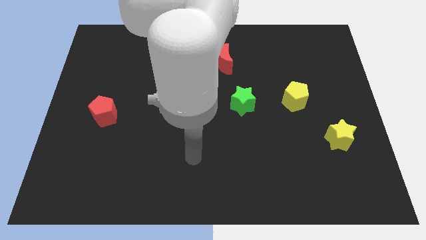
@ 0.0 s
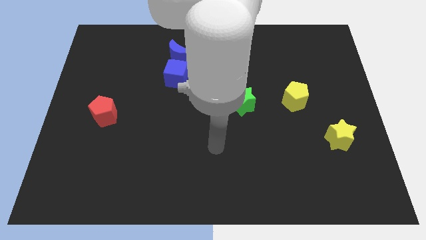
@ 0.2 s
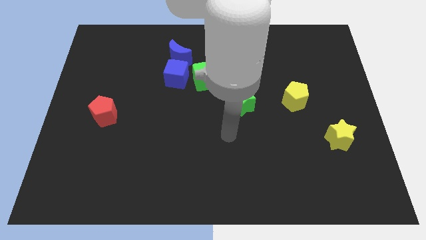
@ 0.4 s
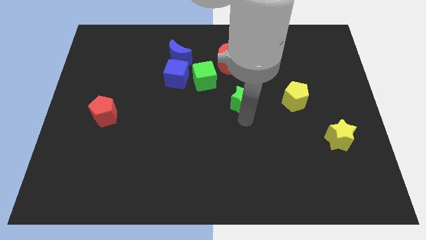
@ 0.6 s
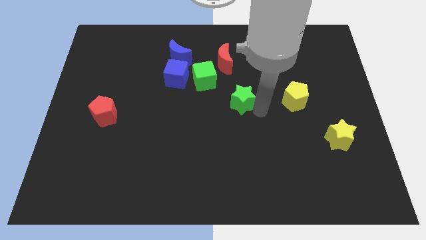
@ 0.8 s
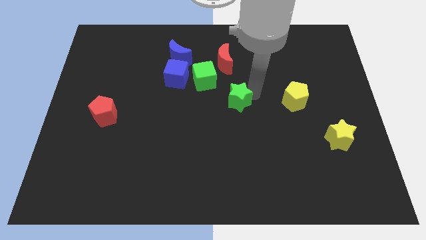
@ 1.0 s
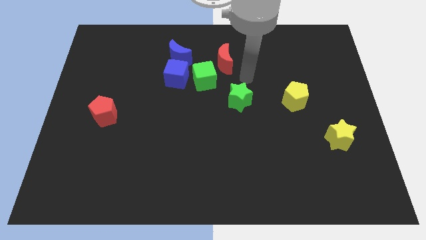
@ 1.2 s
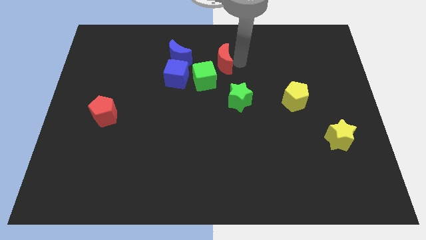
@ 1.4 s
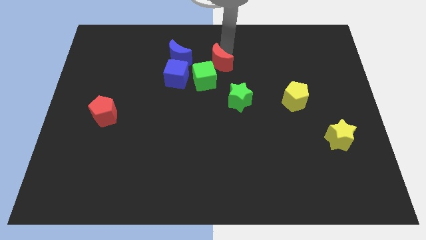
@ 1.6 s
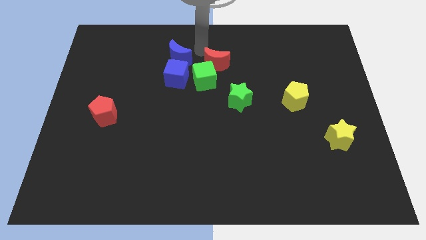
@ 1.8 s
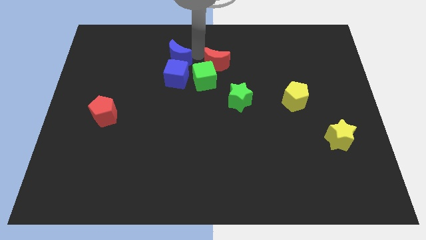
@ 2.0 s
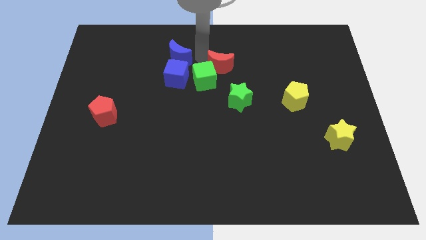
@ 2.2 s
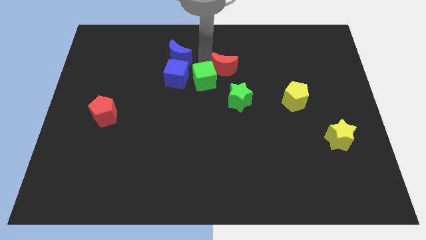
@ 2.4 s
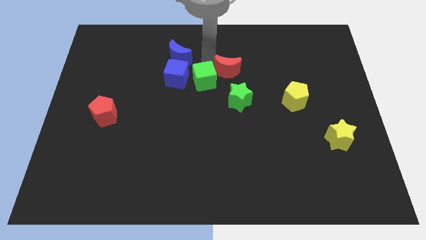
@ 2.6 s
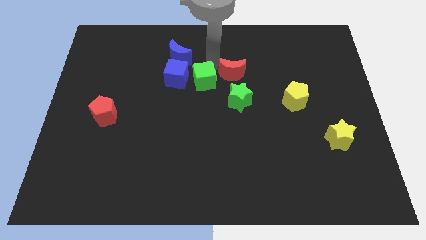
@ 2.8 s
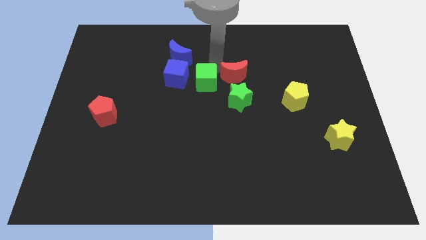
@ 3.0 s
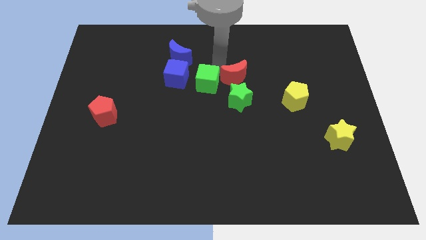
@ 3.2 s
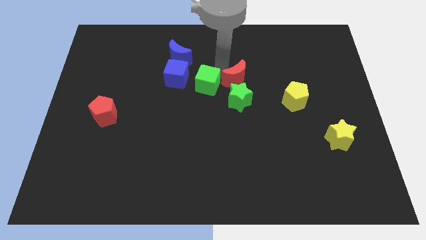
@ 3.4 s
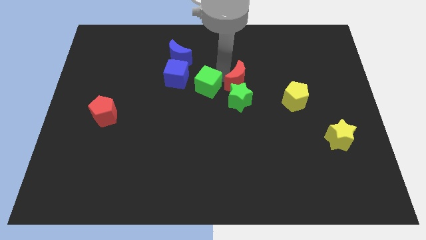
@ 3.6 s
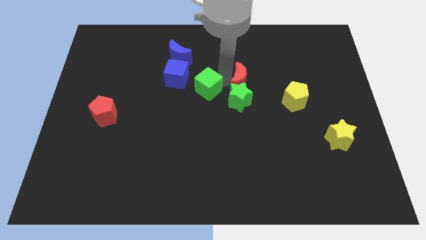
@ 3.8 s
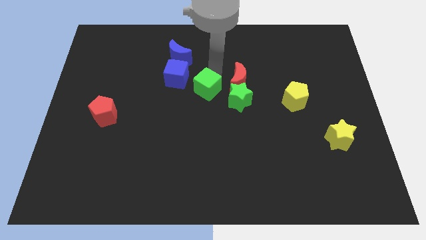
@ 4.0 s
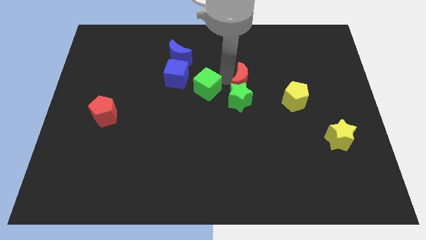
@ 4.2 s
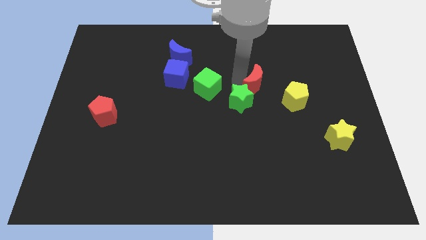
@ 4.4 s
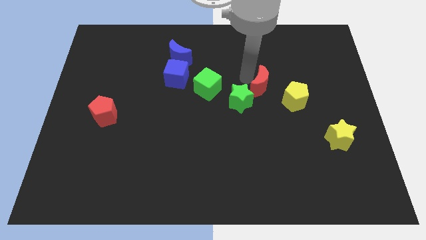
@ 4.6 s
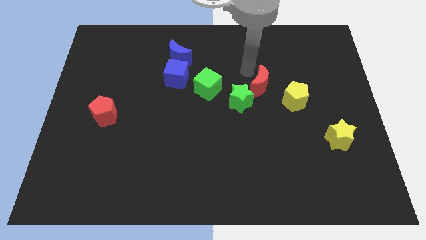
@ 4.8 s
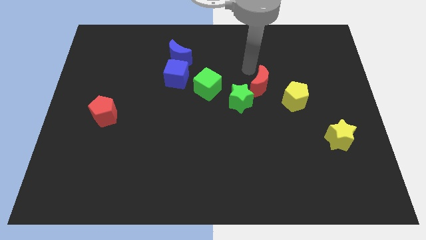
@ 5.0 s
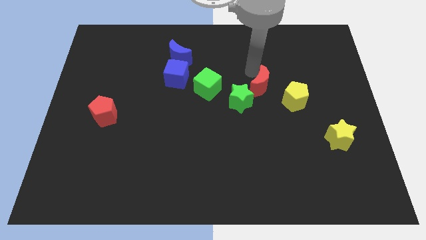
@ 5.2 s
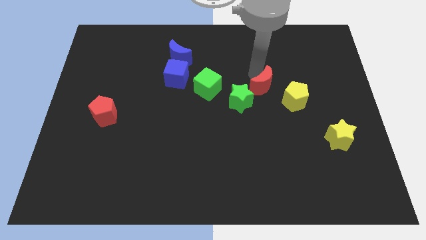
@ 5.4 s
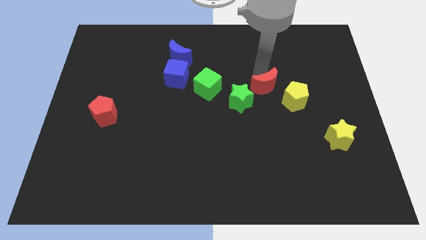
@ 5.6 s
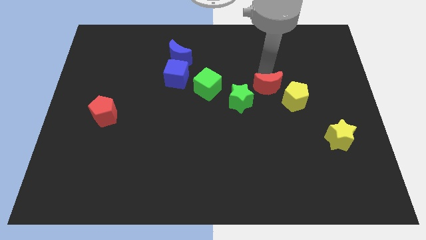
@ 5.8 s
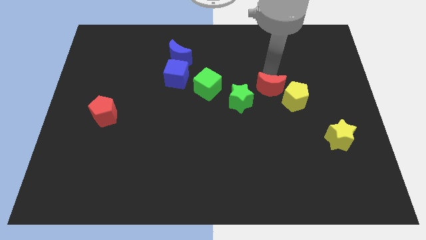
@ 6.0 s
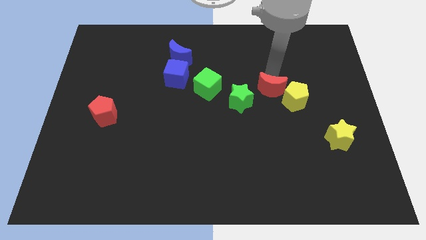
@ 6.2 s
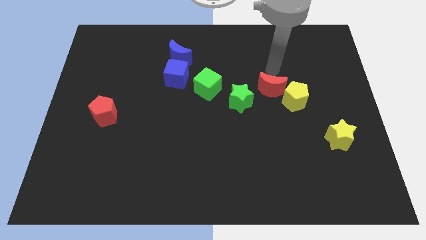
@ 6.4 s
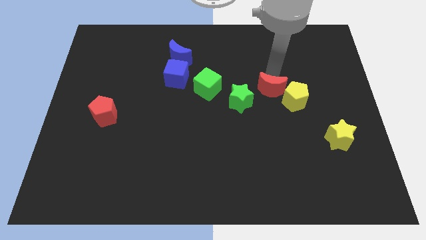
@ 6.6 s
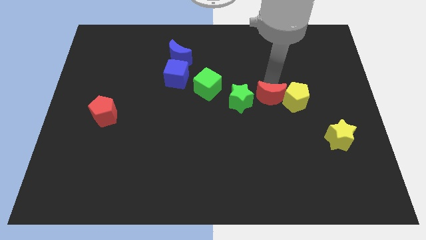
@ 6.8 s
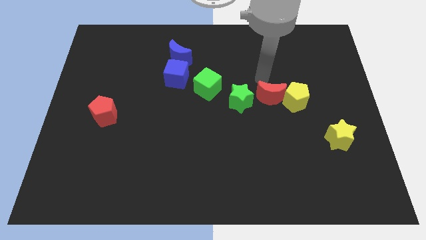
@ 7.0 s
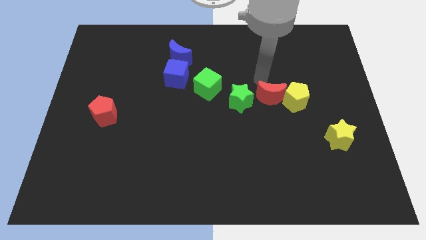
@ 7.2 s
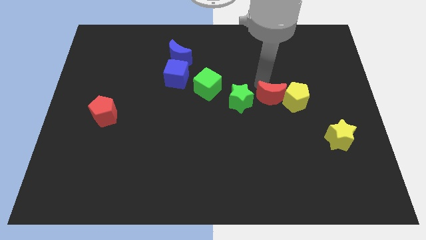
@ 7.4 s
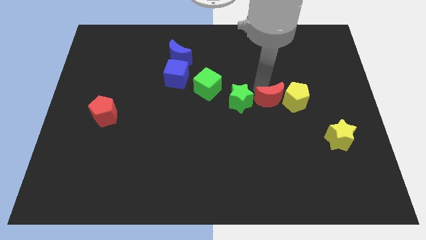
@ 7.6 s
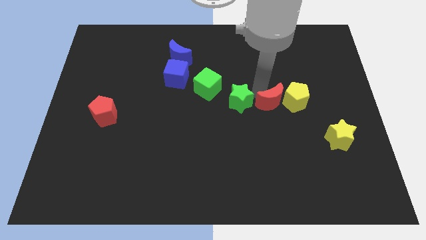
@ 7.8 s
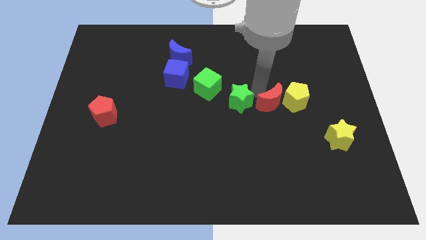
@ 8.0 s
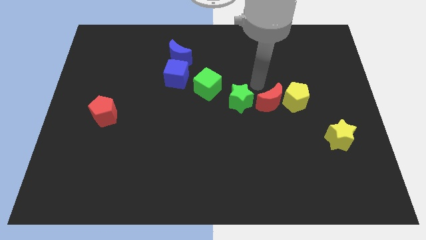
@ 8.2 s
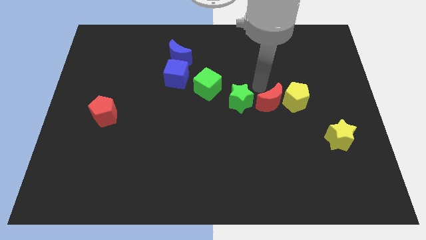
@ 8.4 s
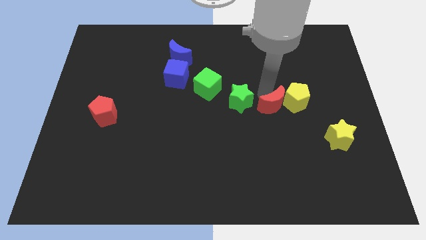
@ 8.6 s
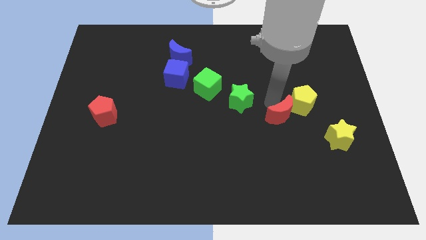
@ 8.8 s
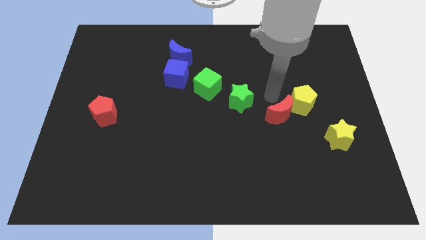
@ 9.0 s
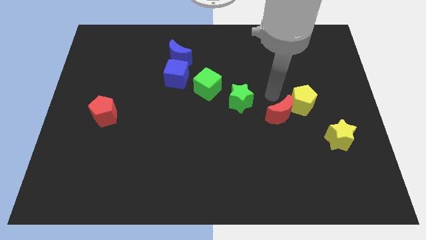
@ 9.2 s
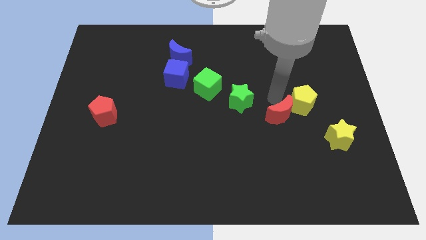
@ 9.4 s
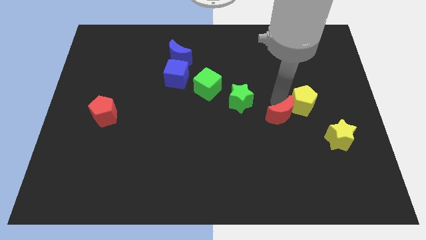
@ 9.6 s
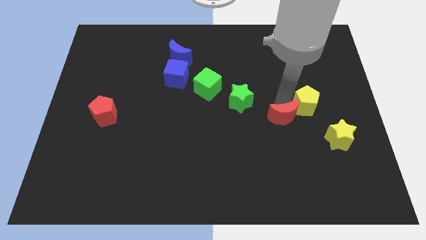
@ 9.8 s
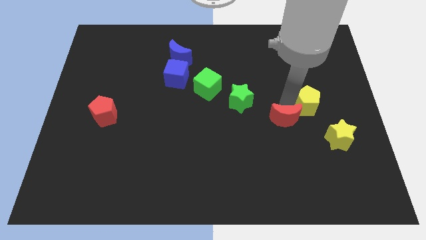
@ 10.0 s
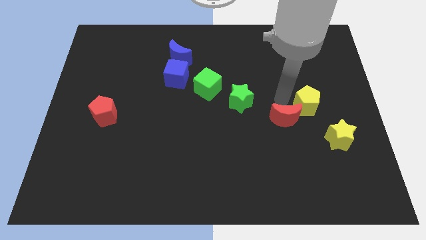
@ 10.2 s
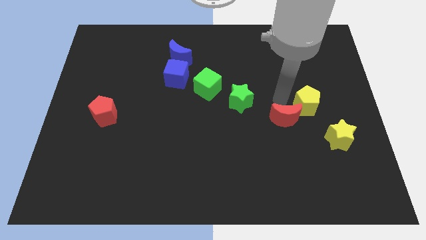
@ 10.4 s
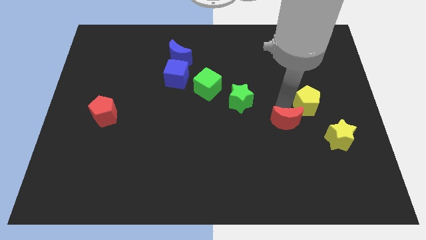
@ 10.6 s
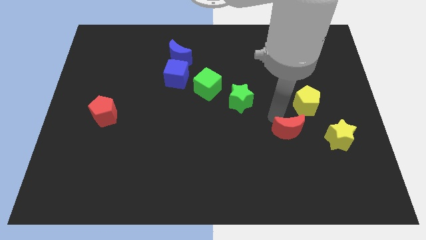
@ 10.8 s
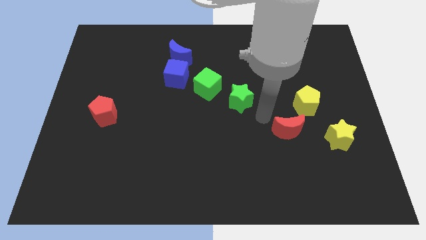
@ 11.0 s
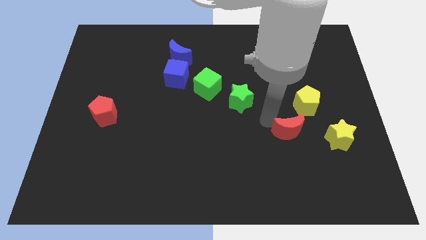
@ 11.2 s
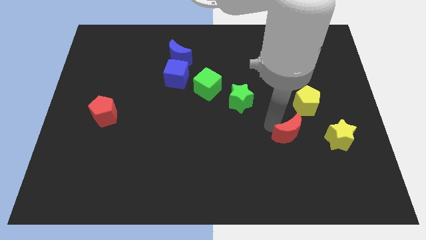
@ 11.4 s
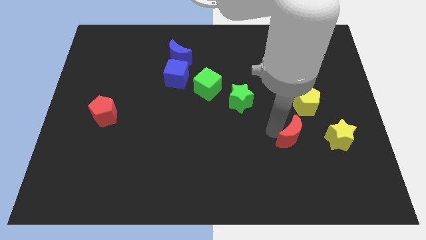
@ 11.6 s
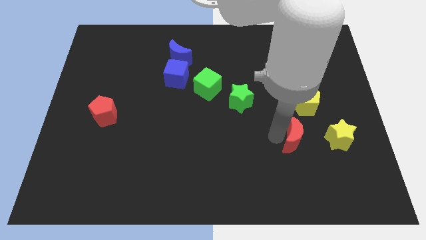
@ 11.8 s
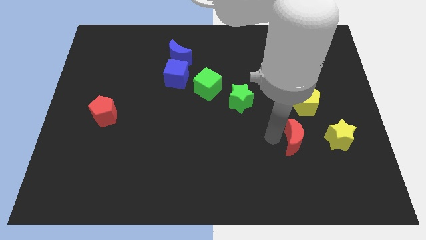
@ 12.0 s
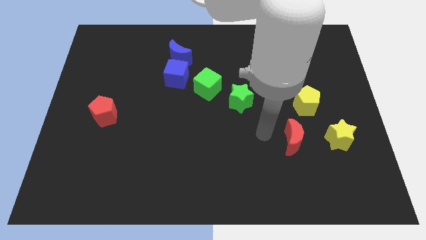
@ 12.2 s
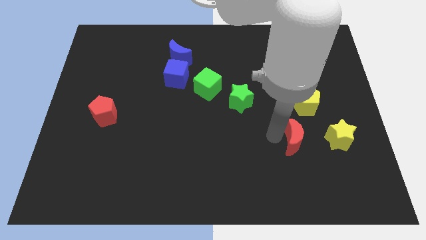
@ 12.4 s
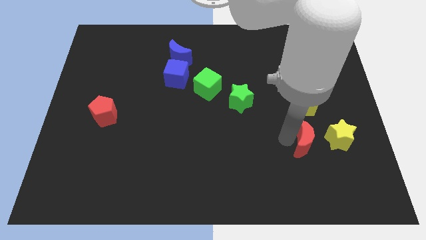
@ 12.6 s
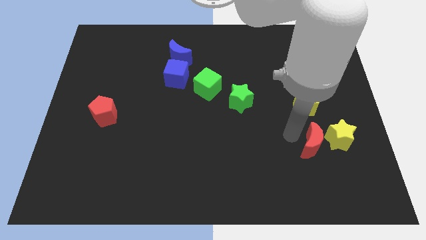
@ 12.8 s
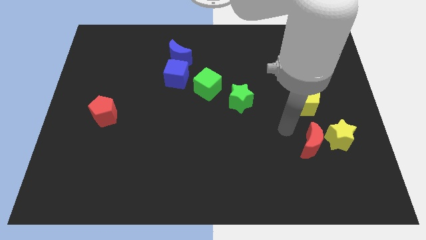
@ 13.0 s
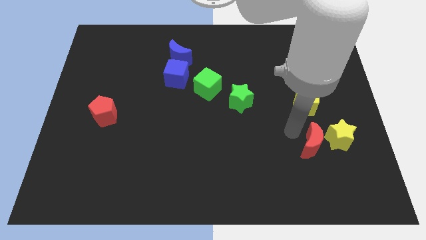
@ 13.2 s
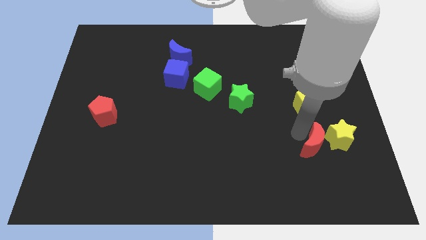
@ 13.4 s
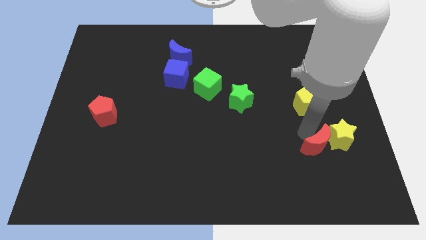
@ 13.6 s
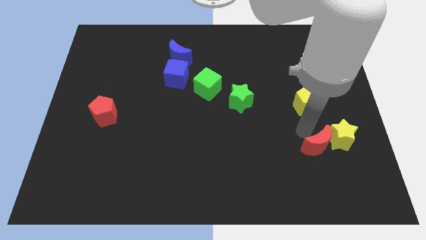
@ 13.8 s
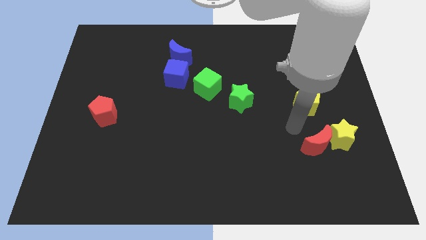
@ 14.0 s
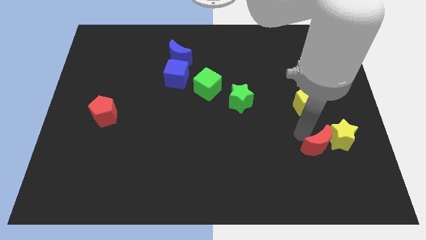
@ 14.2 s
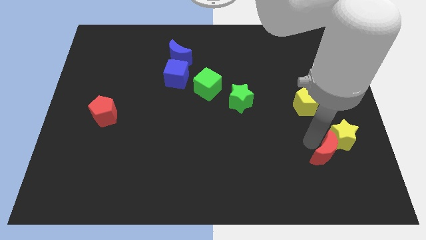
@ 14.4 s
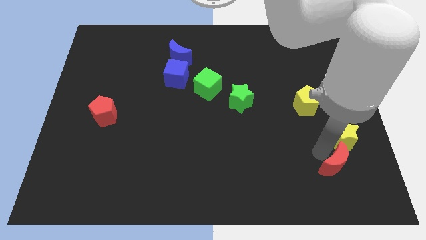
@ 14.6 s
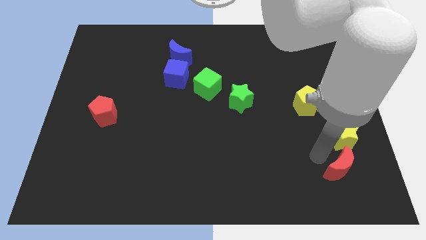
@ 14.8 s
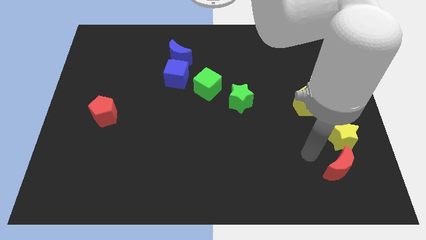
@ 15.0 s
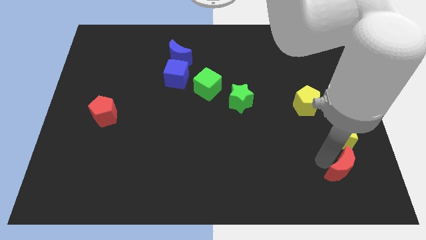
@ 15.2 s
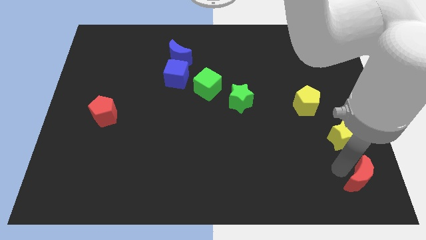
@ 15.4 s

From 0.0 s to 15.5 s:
move the red moon to the bottom right
